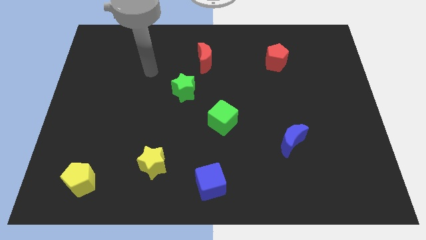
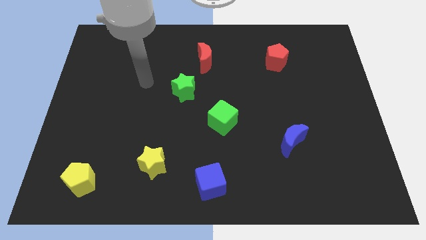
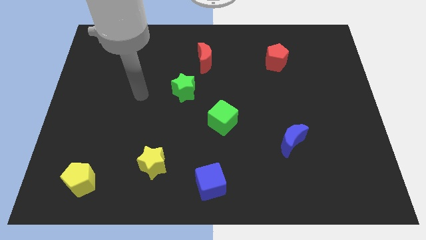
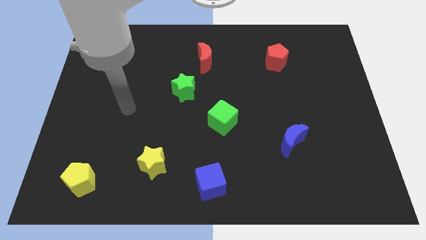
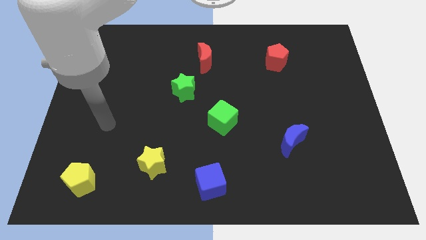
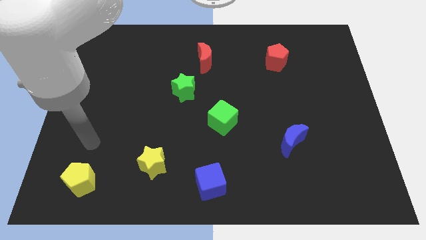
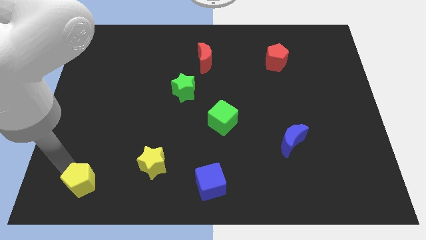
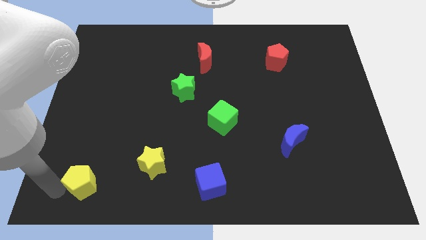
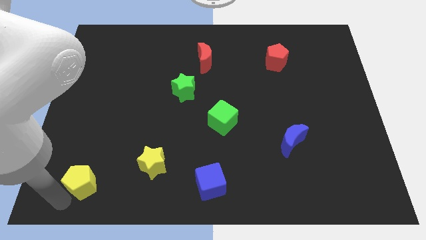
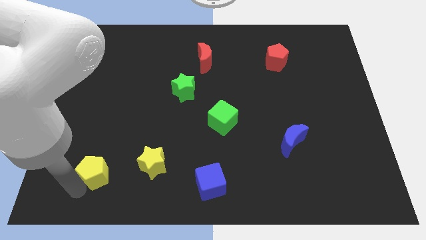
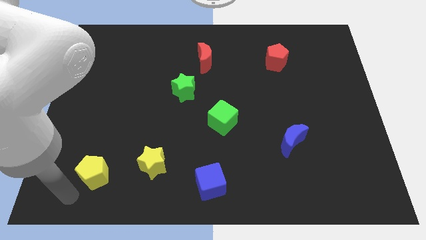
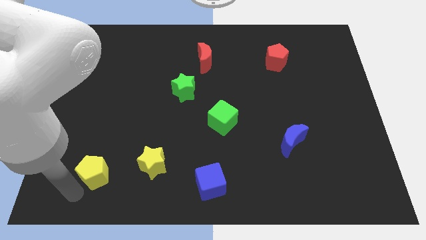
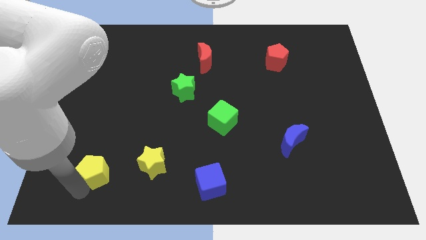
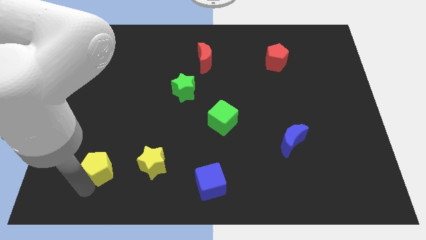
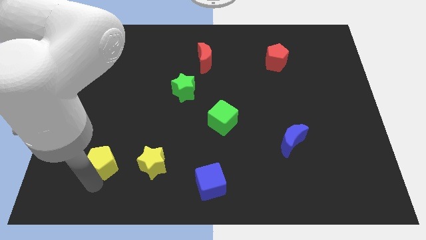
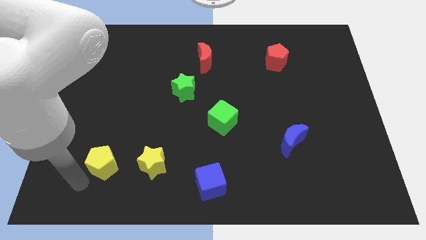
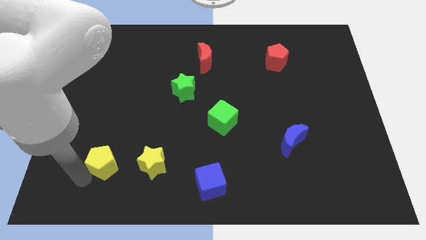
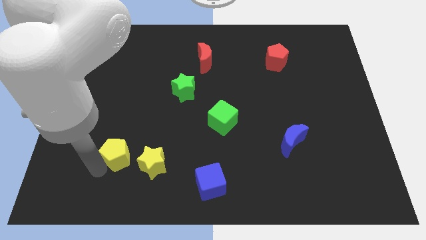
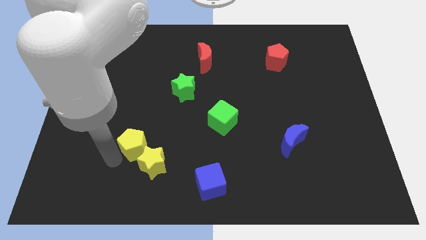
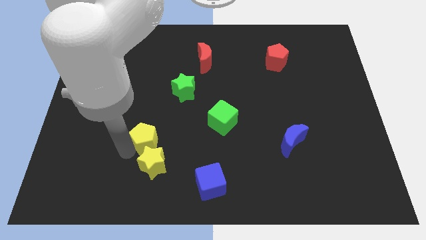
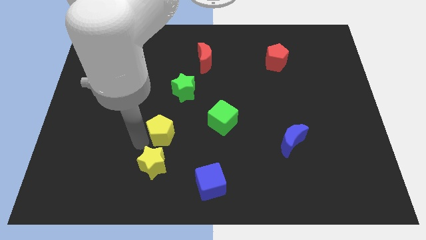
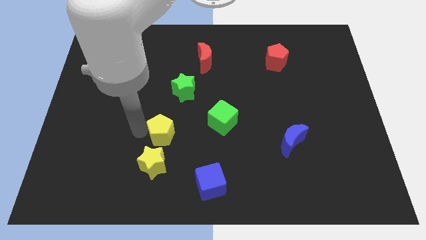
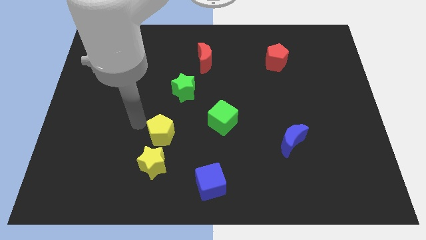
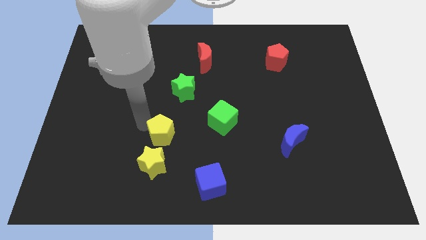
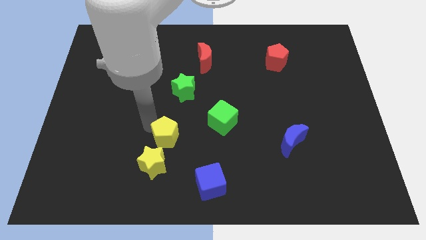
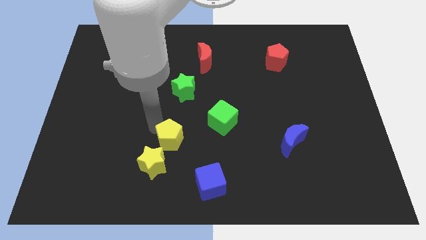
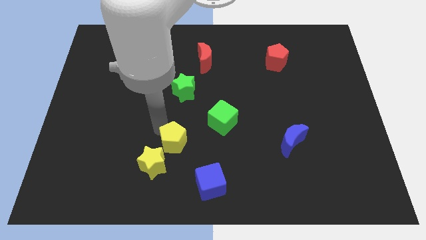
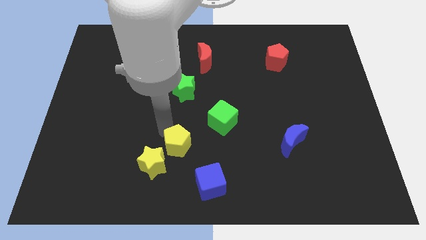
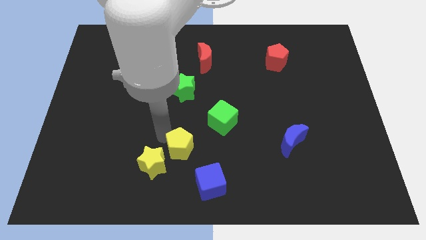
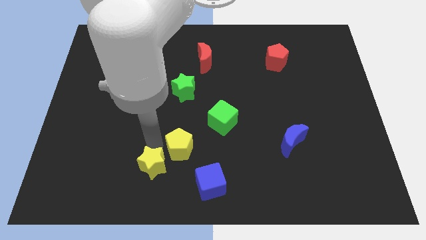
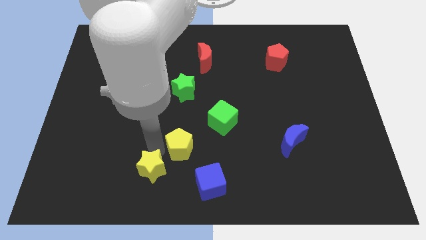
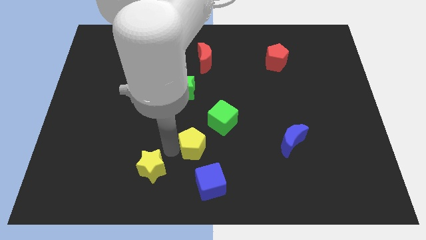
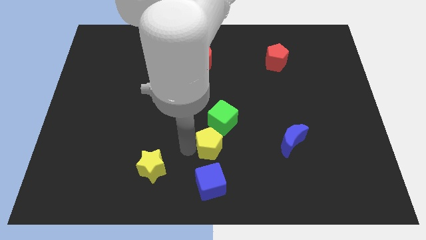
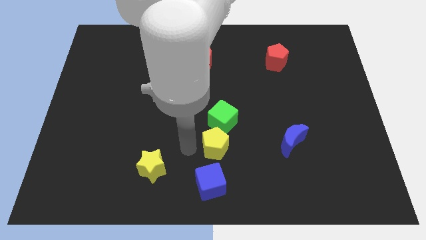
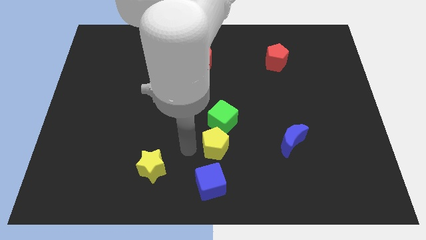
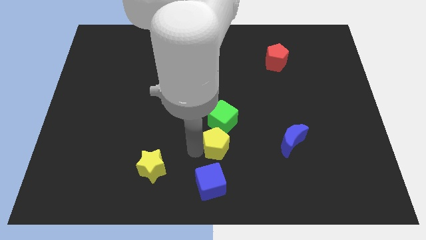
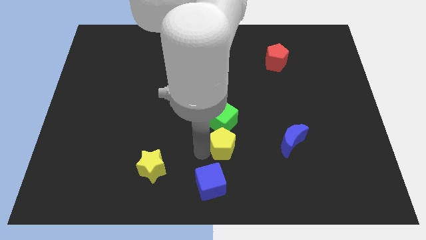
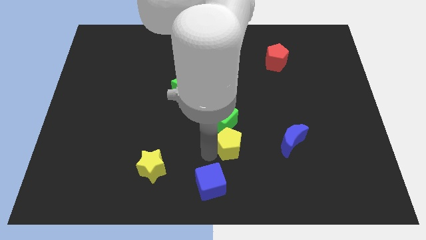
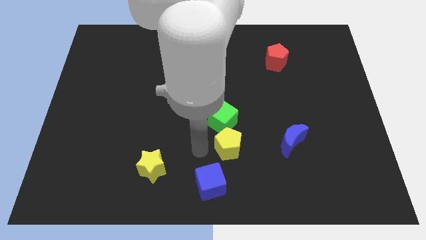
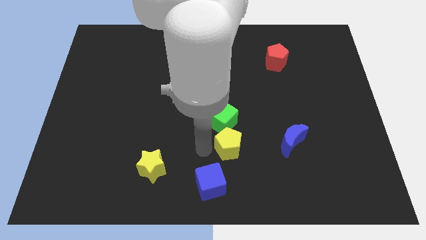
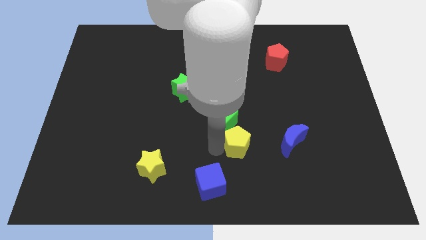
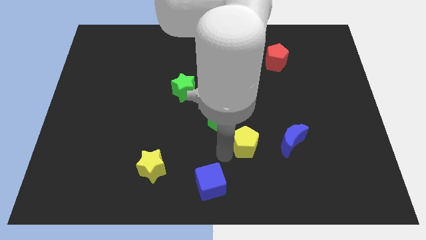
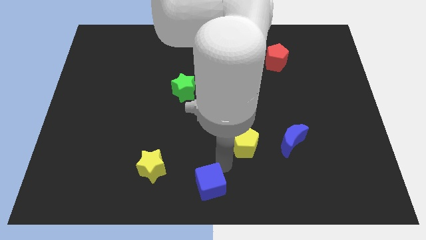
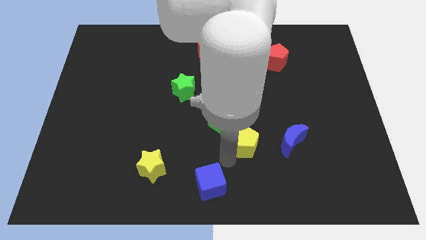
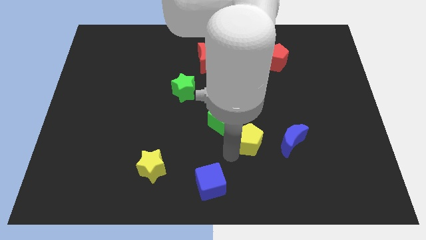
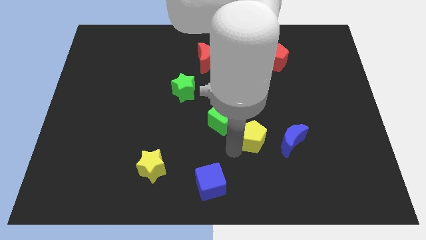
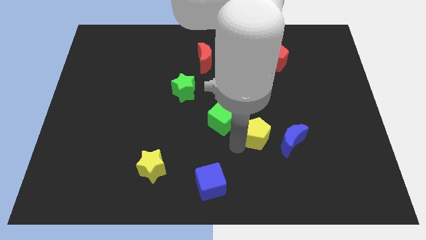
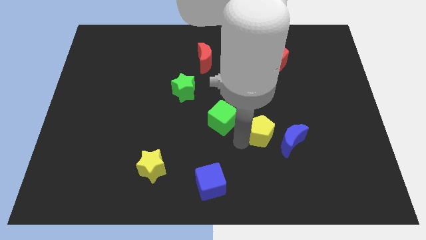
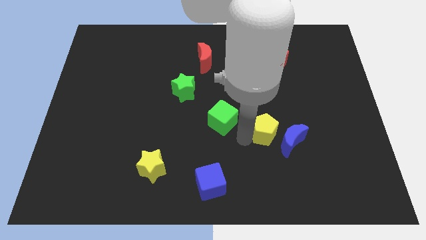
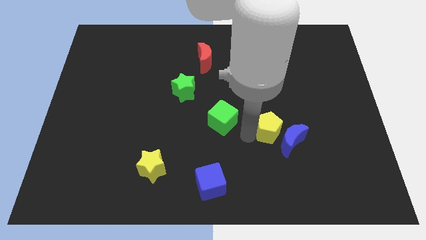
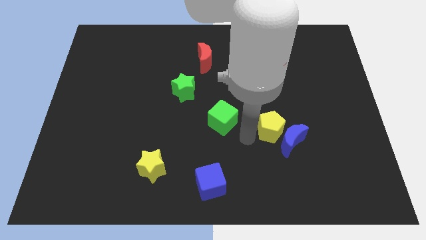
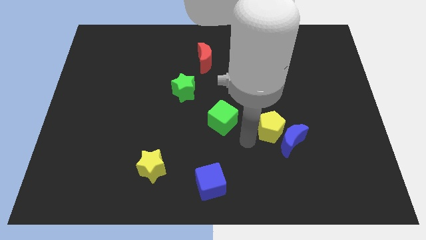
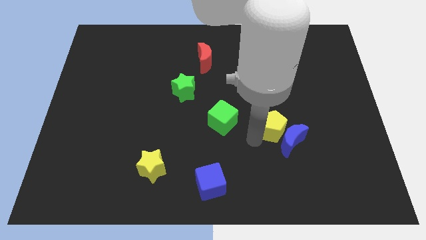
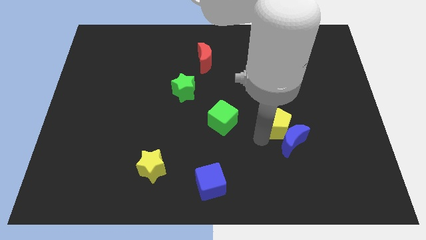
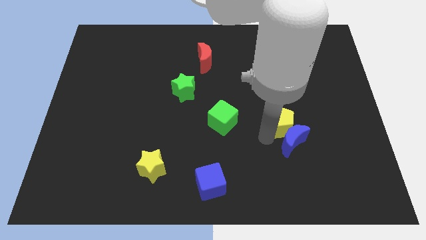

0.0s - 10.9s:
put the yellow pentagon to the top right of the blue moon

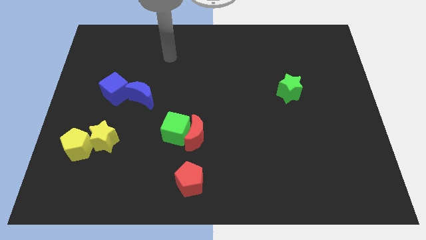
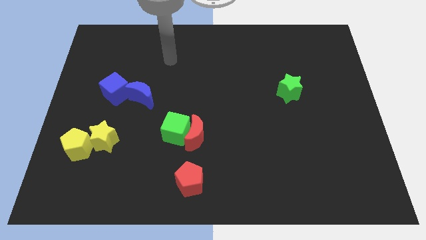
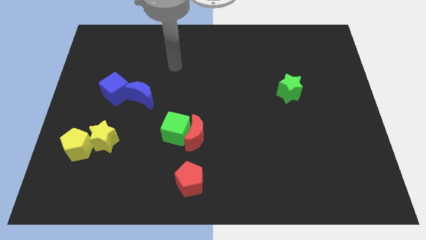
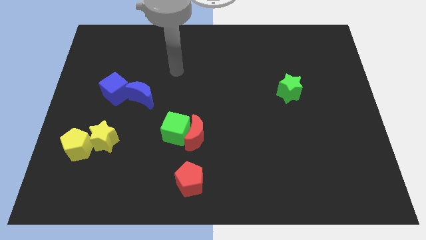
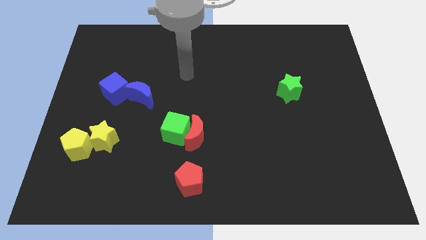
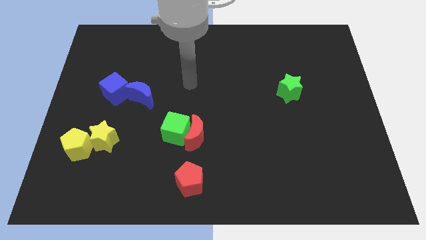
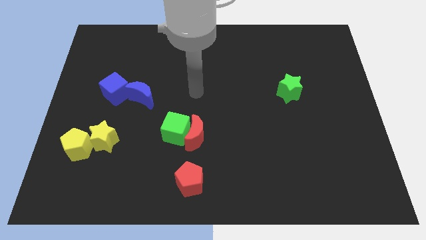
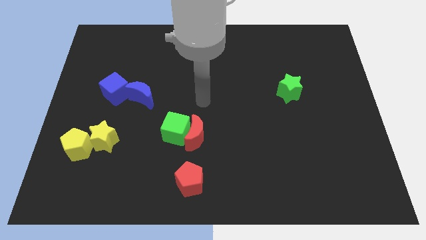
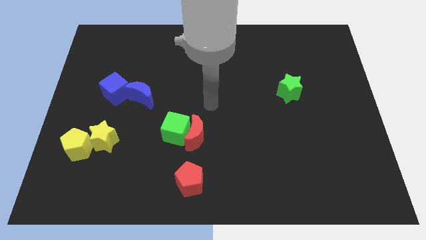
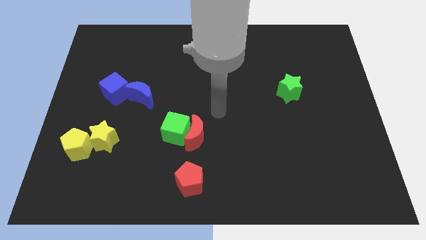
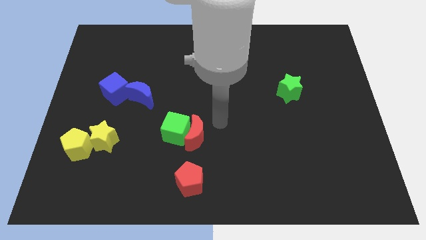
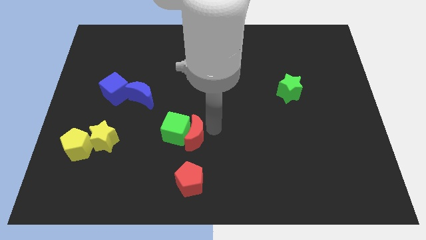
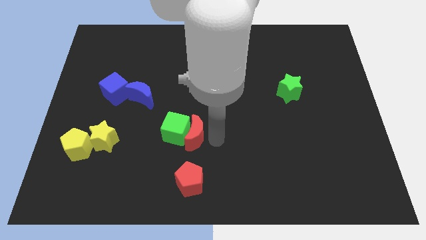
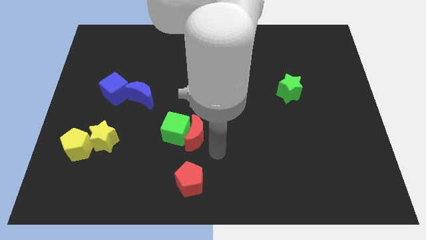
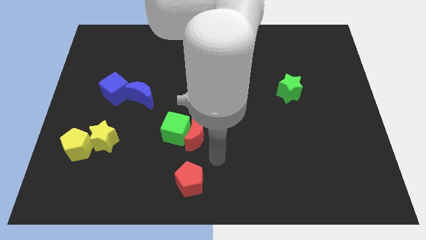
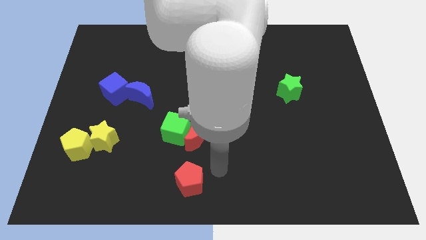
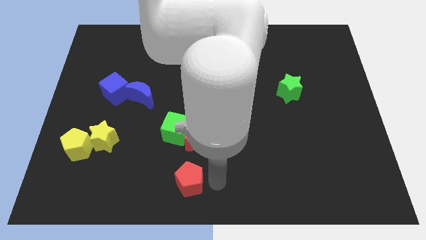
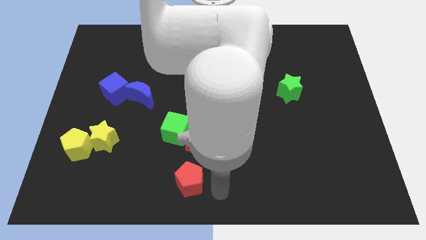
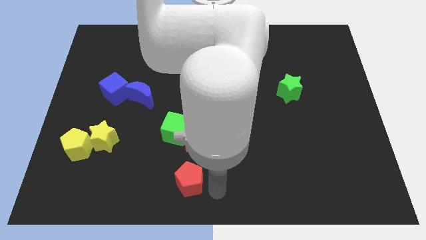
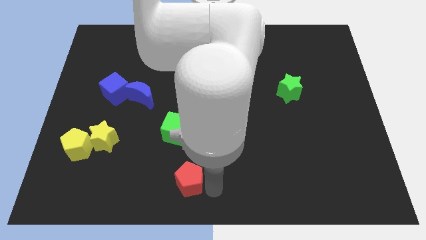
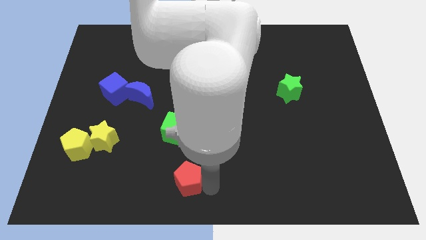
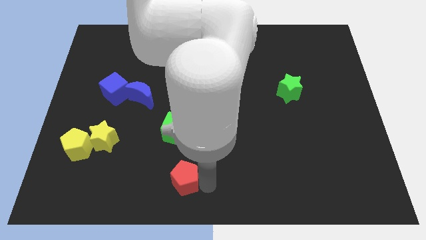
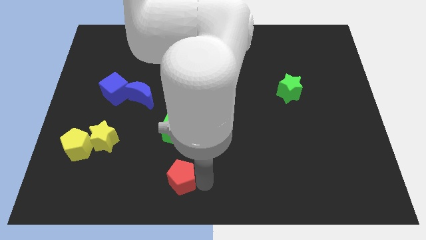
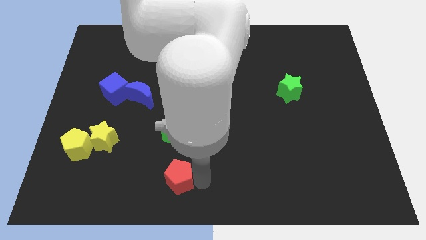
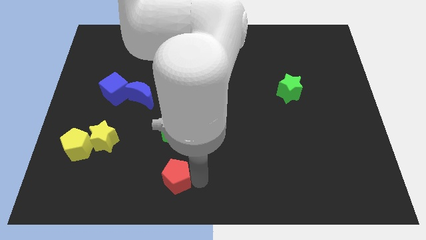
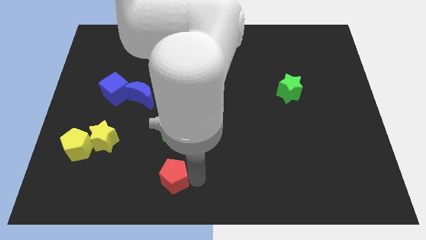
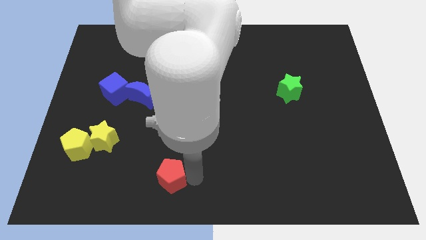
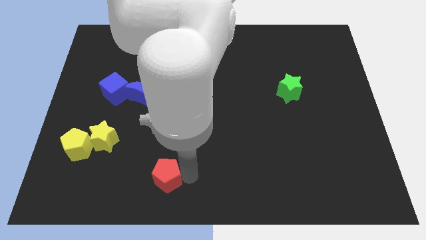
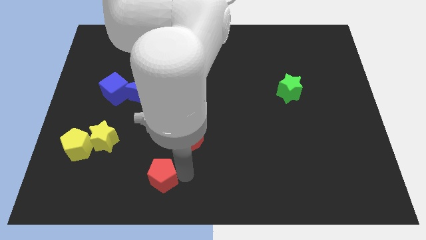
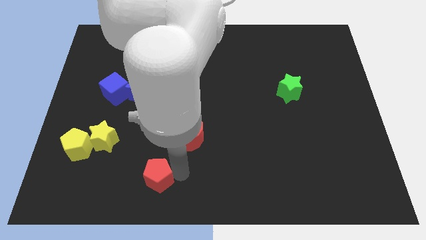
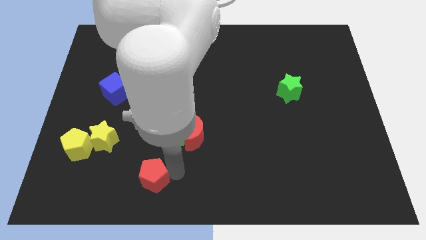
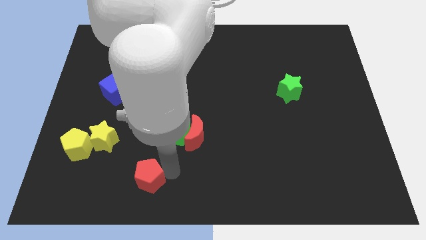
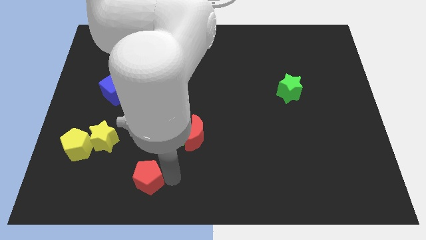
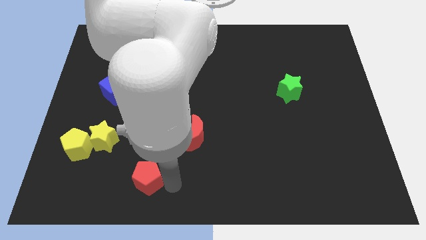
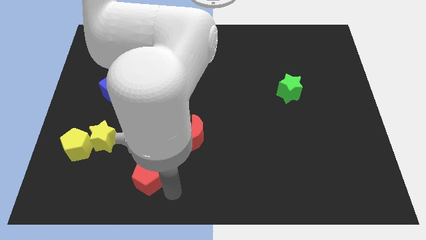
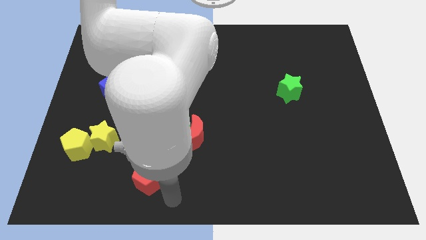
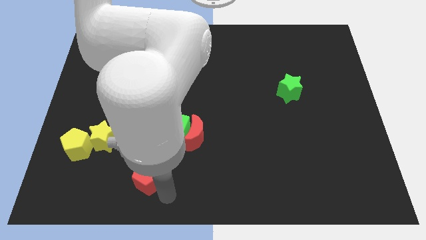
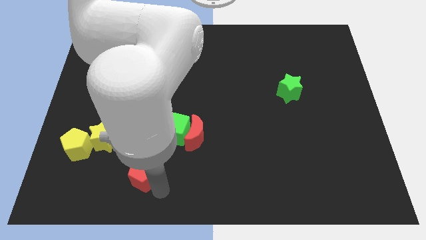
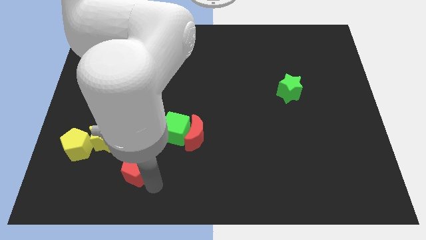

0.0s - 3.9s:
push the red pentagon to the bottom right side of the yellow star
